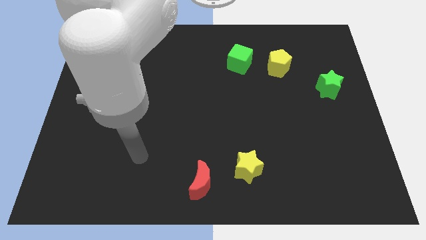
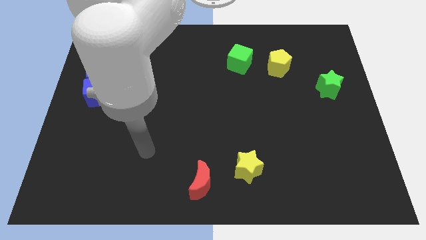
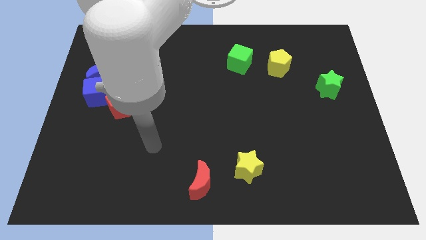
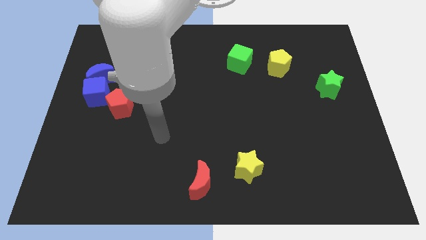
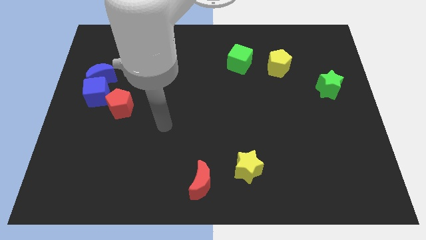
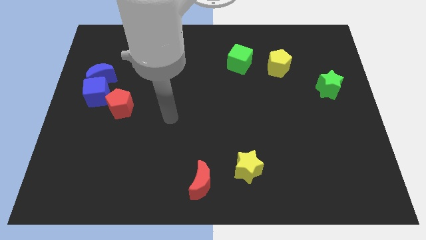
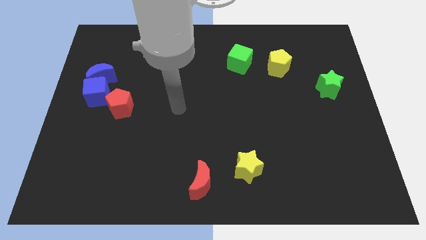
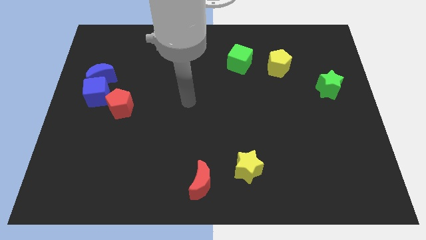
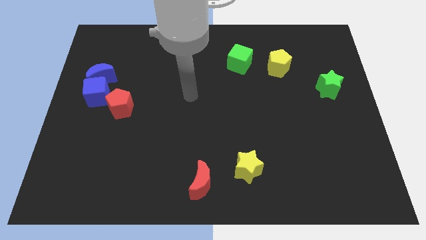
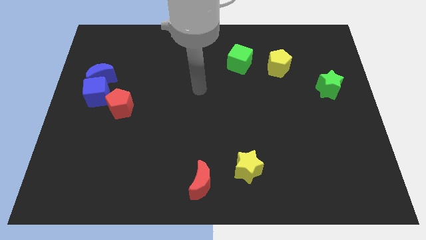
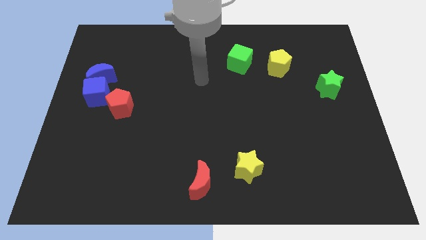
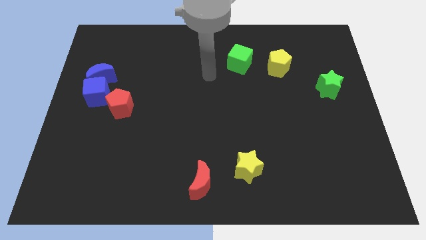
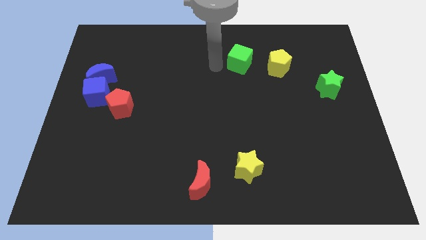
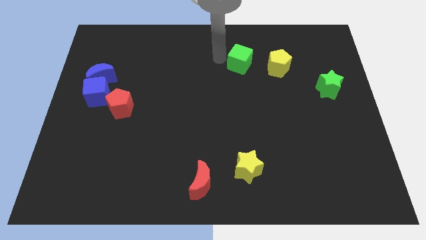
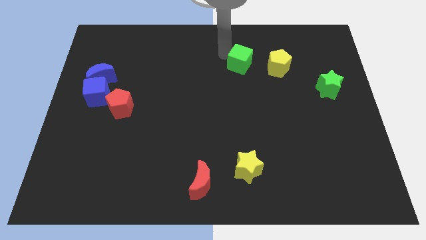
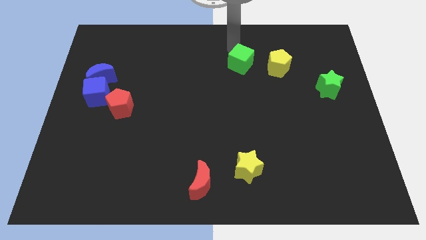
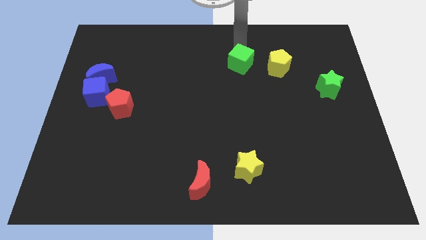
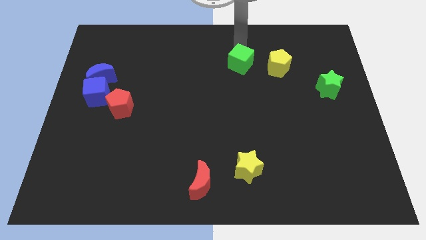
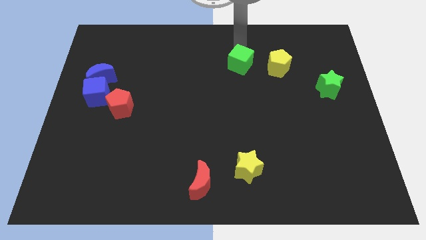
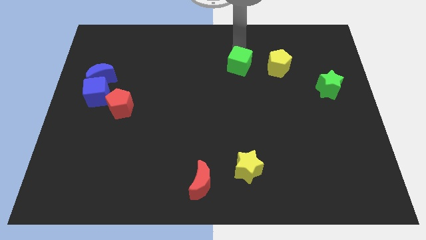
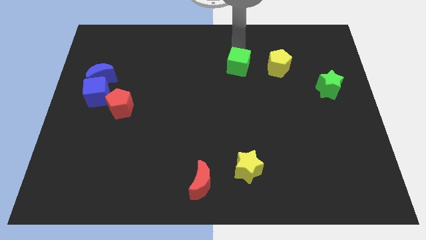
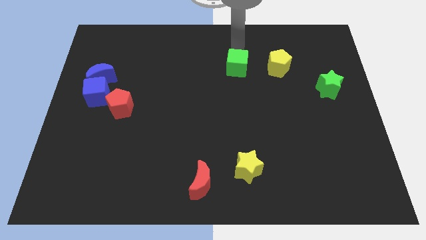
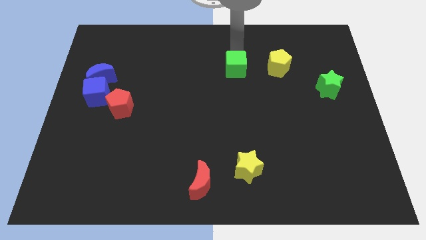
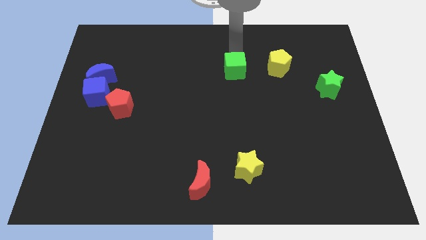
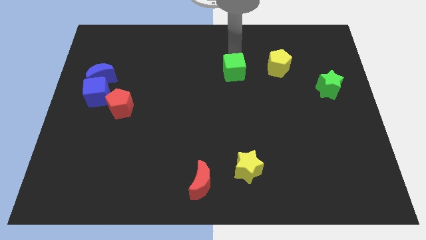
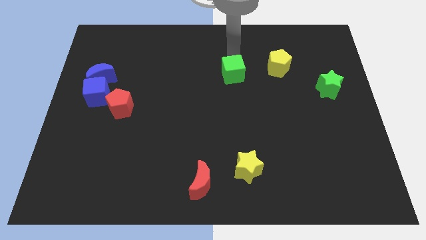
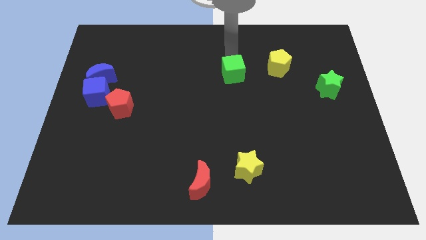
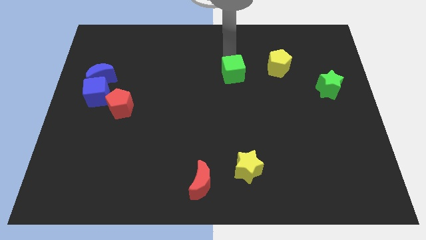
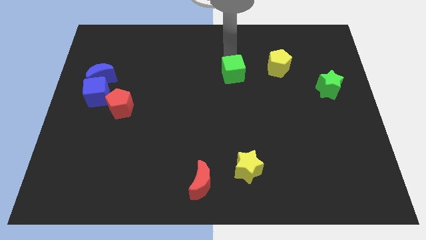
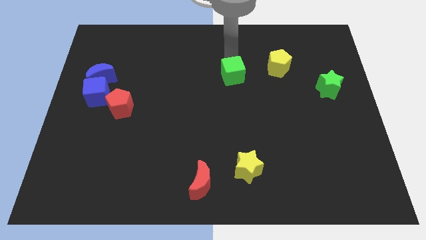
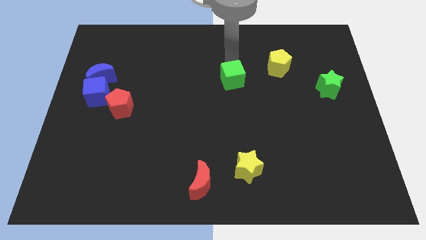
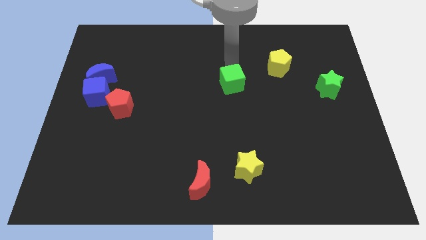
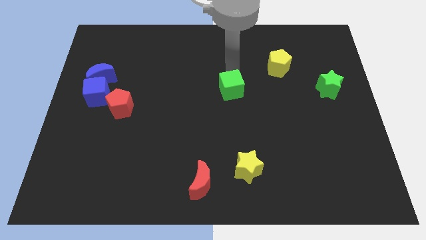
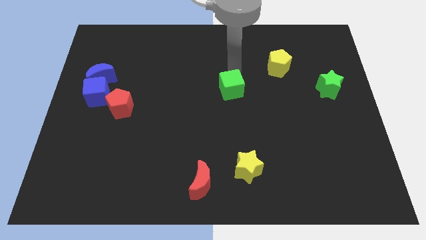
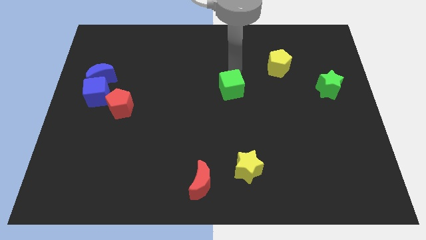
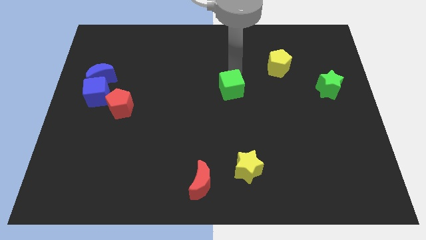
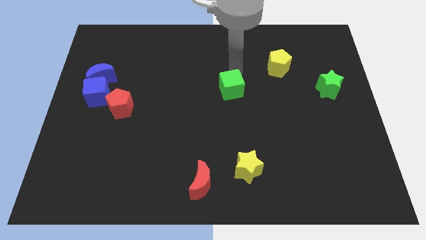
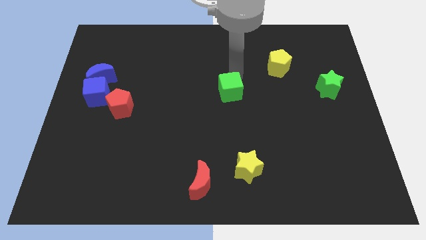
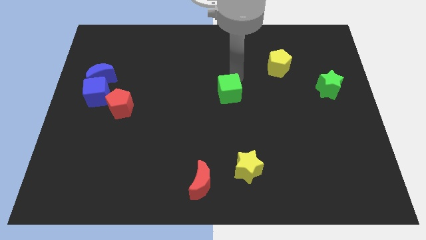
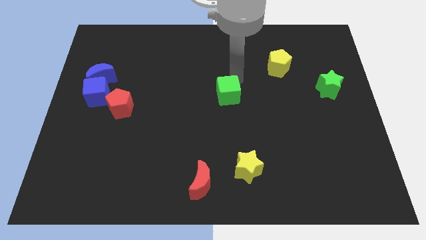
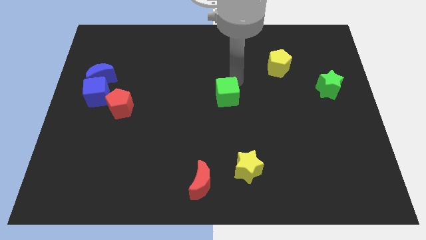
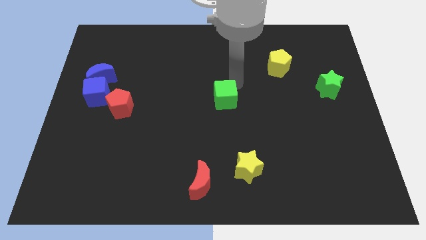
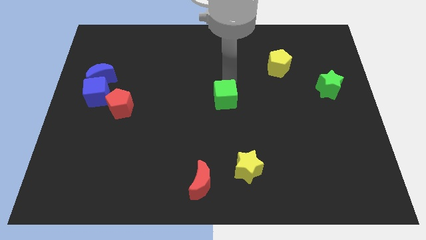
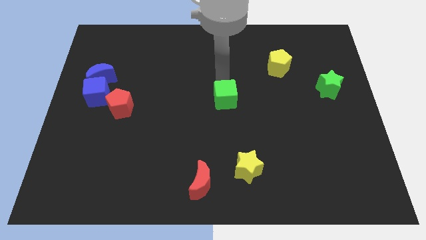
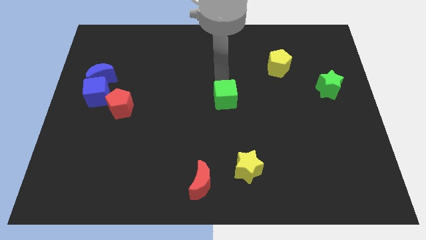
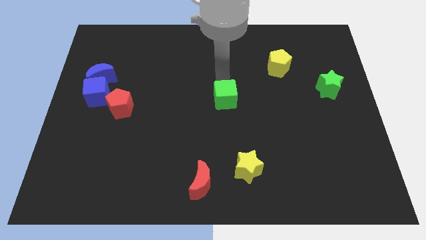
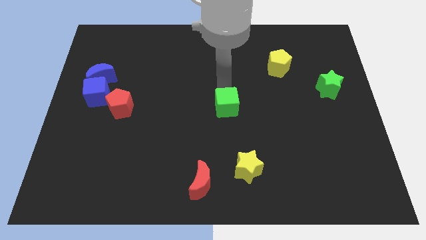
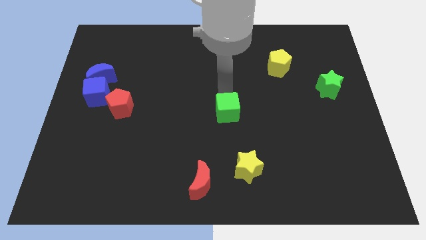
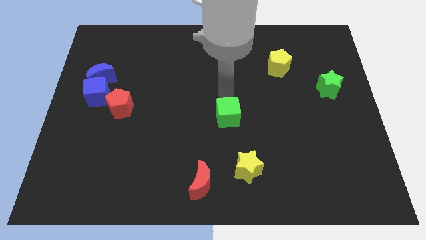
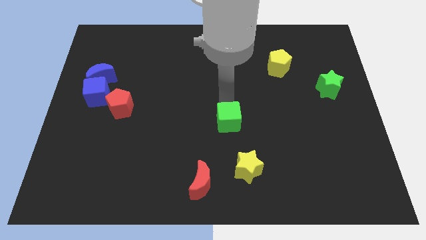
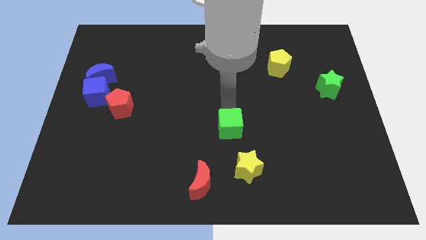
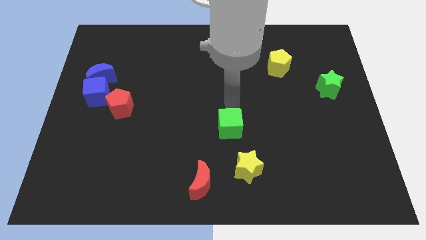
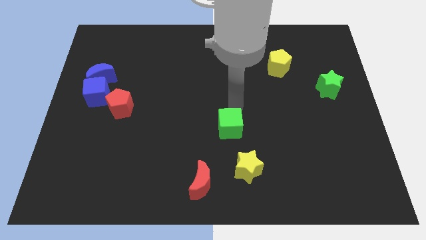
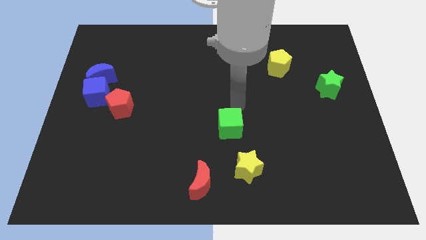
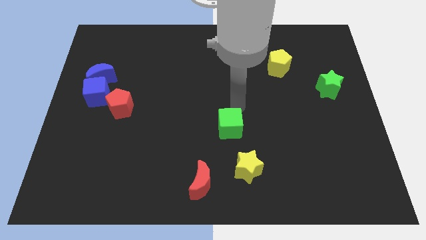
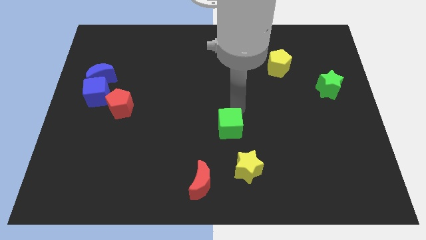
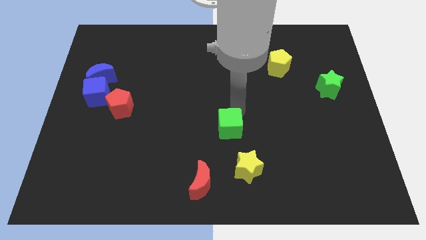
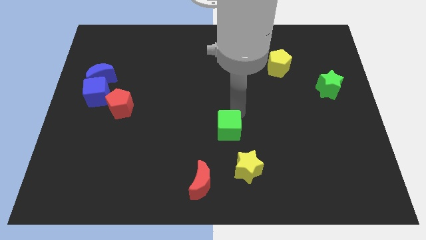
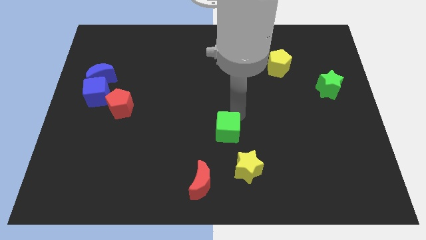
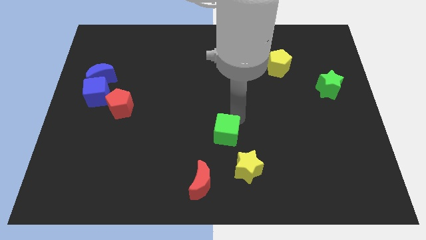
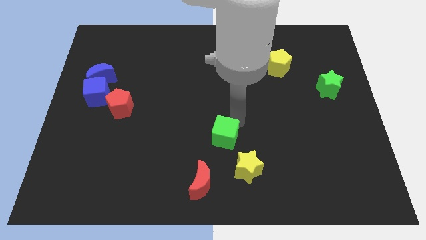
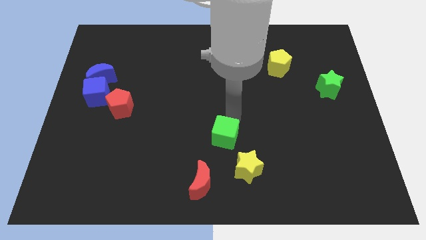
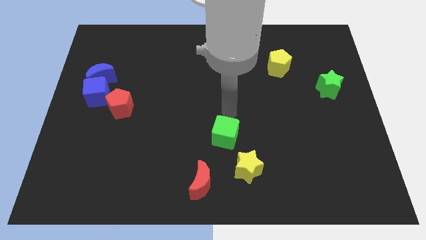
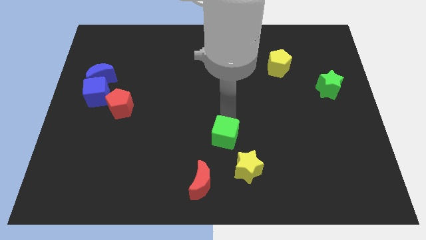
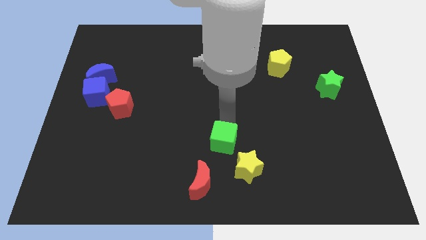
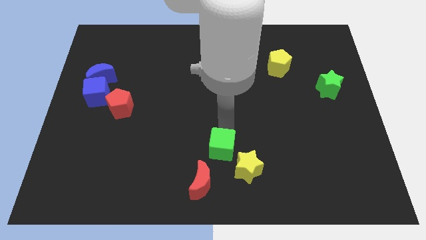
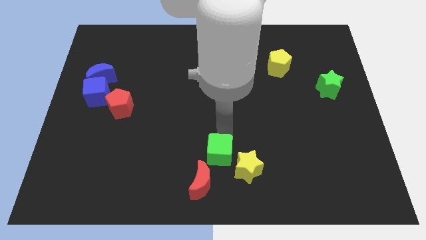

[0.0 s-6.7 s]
push the green cube to the bottom
